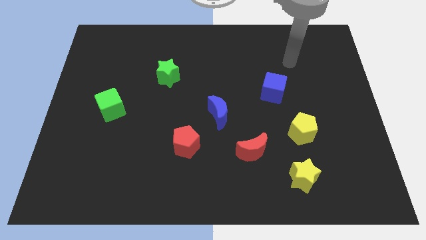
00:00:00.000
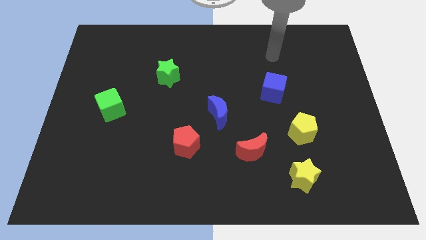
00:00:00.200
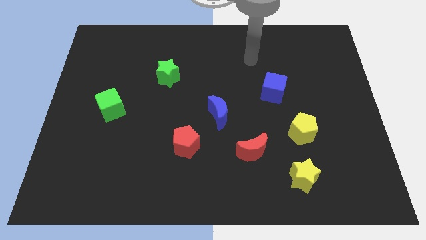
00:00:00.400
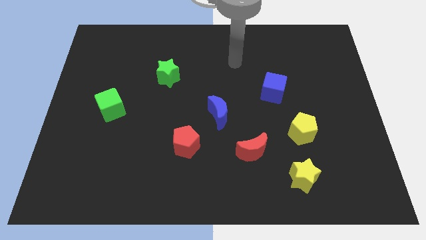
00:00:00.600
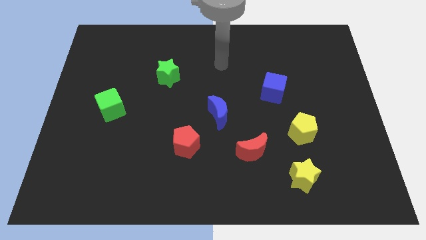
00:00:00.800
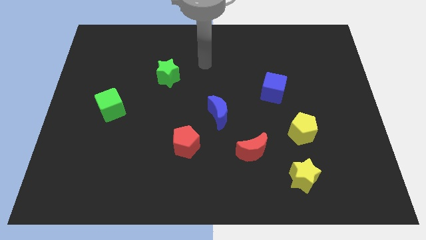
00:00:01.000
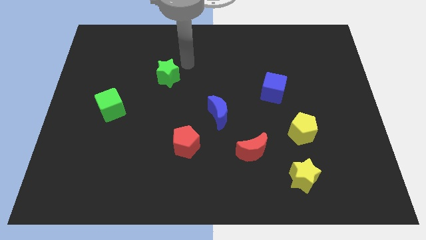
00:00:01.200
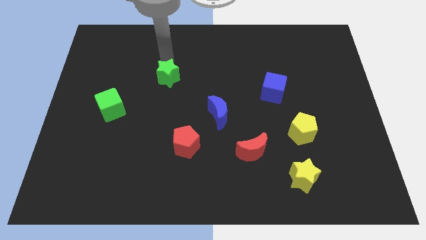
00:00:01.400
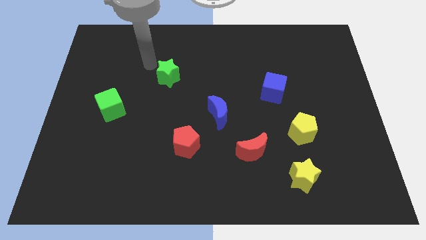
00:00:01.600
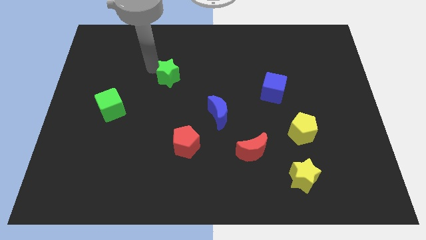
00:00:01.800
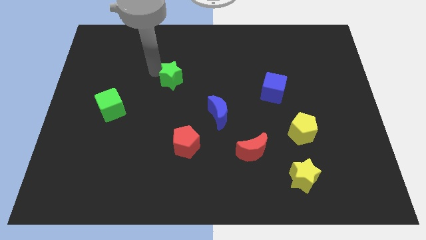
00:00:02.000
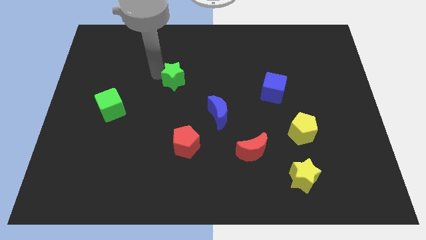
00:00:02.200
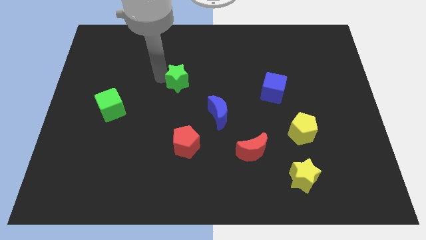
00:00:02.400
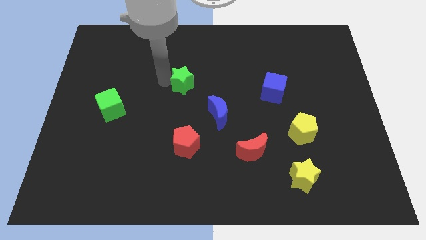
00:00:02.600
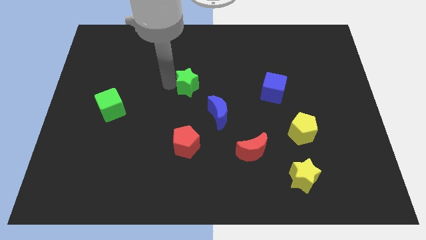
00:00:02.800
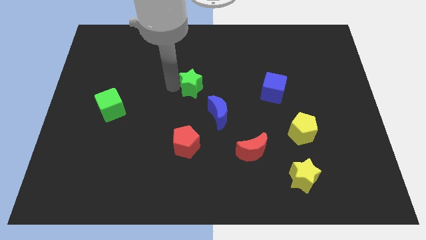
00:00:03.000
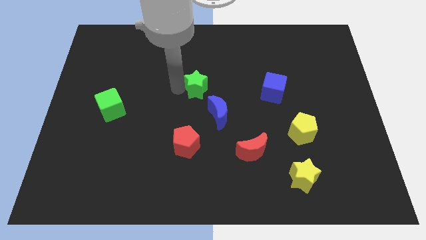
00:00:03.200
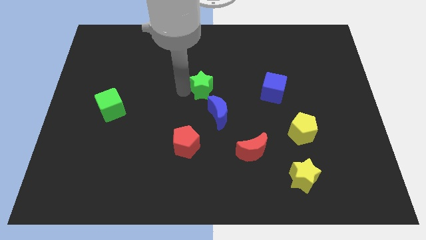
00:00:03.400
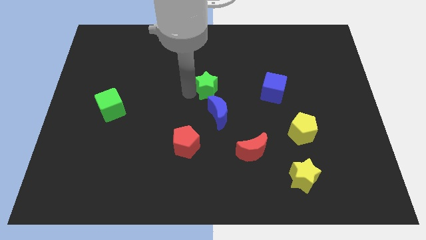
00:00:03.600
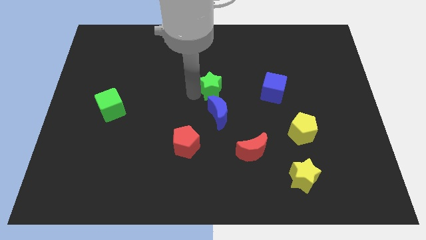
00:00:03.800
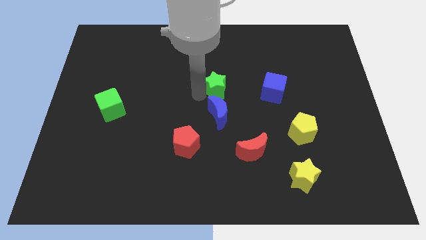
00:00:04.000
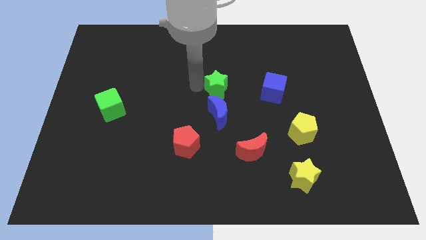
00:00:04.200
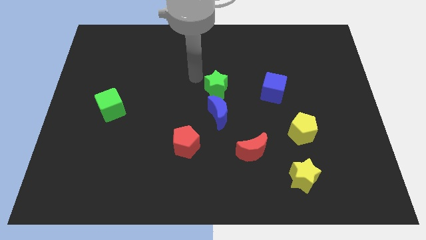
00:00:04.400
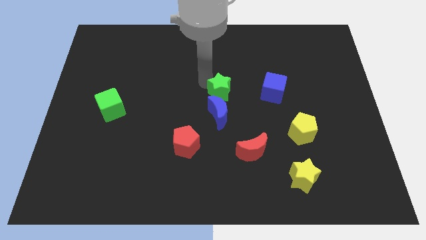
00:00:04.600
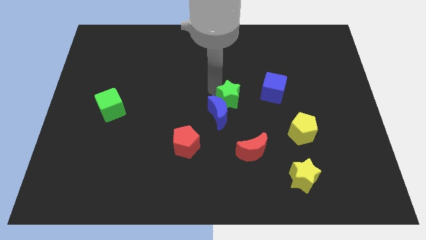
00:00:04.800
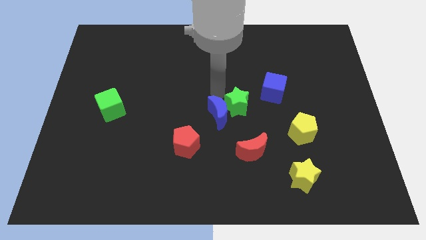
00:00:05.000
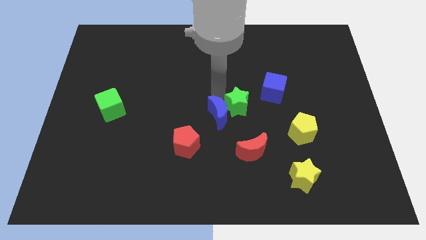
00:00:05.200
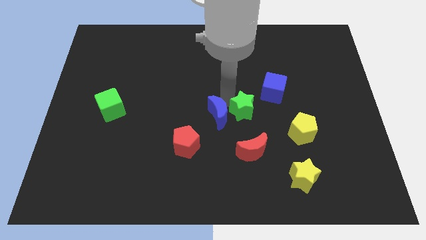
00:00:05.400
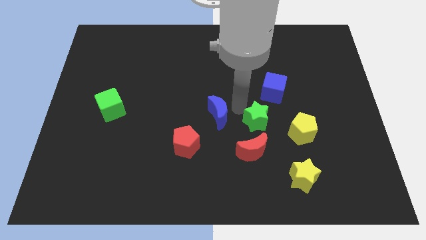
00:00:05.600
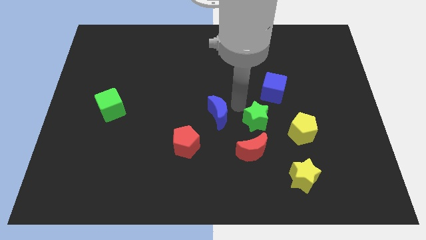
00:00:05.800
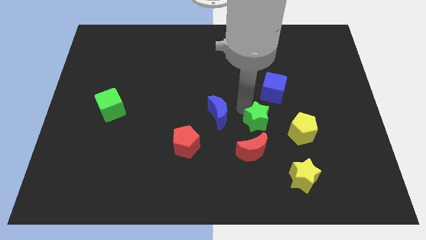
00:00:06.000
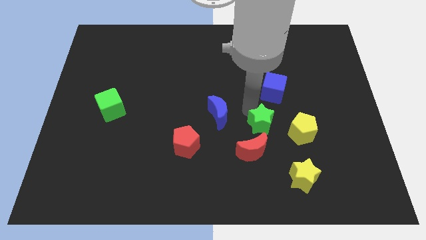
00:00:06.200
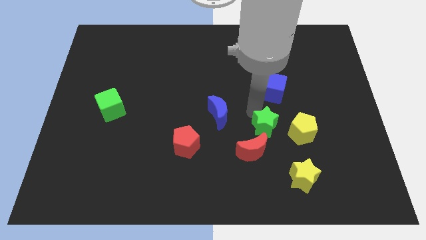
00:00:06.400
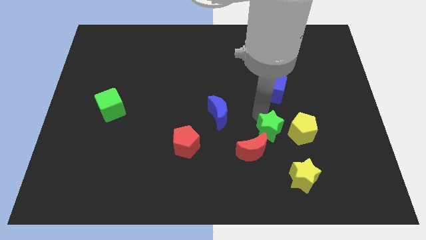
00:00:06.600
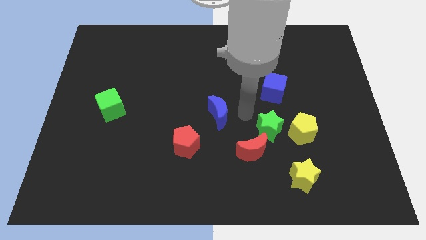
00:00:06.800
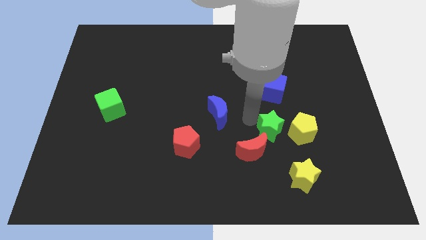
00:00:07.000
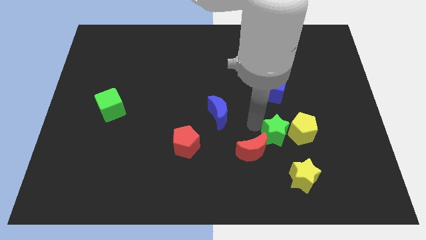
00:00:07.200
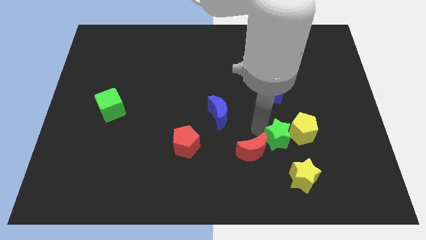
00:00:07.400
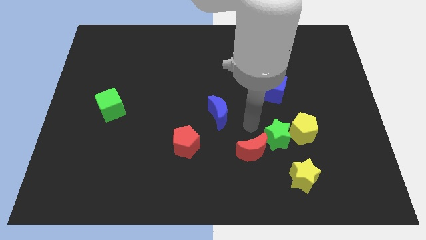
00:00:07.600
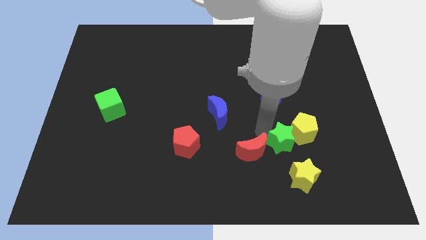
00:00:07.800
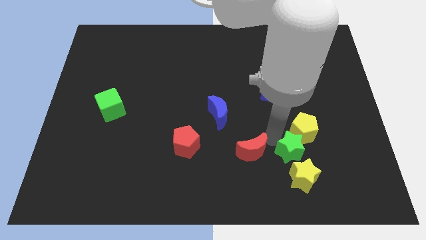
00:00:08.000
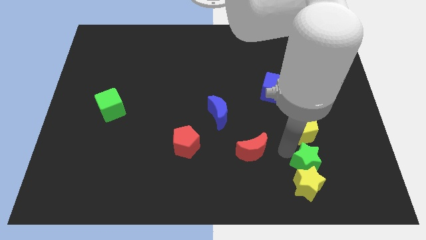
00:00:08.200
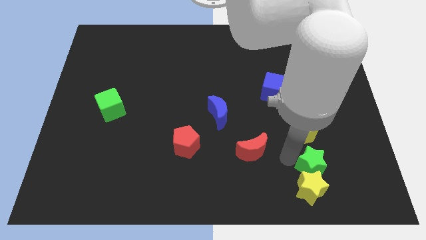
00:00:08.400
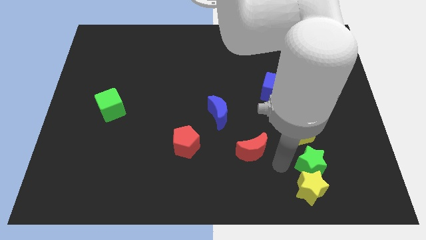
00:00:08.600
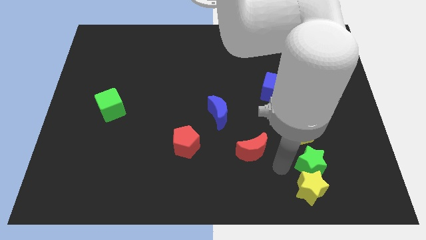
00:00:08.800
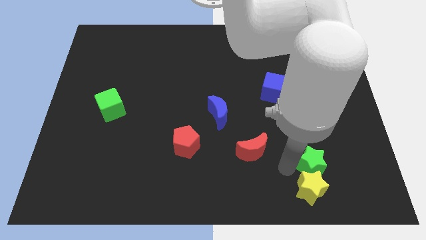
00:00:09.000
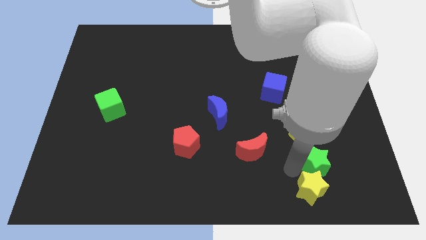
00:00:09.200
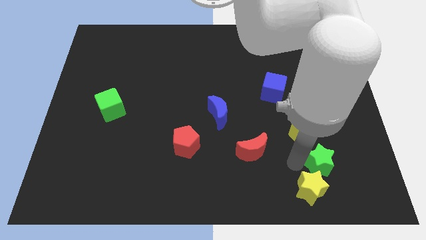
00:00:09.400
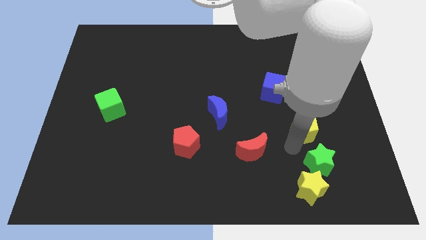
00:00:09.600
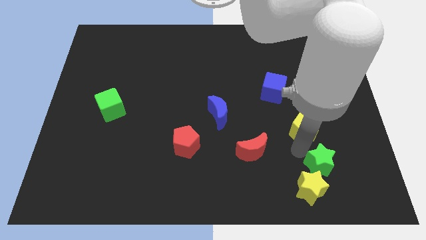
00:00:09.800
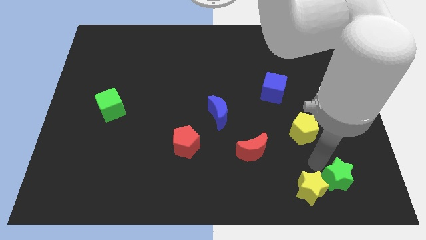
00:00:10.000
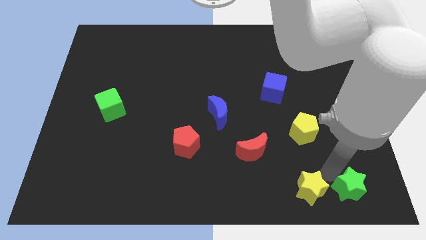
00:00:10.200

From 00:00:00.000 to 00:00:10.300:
slide the green star to the bottom right of the board
